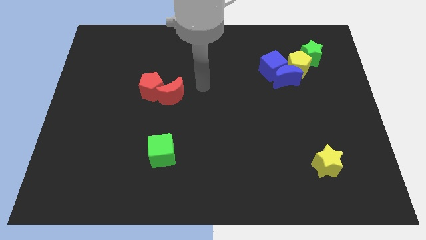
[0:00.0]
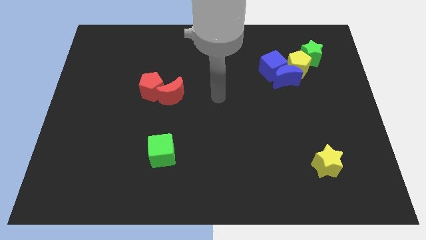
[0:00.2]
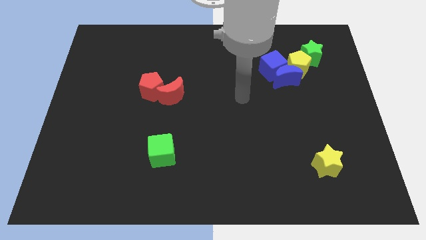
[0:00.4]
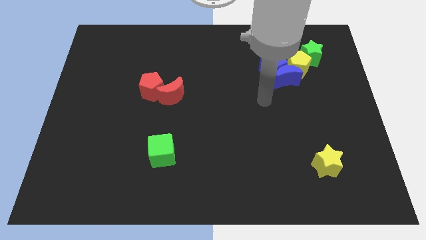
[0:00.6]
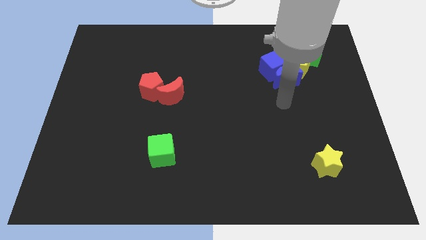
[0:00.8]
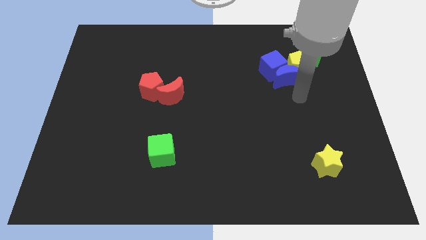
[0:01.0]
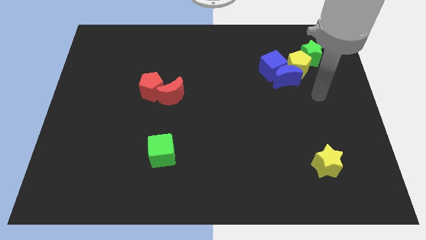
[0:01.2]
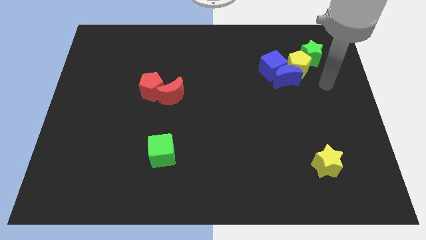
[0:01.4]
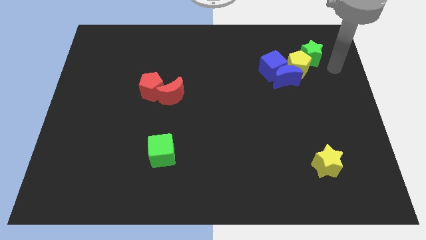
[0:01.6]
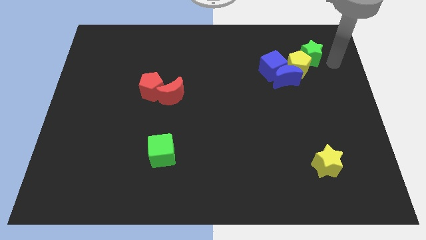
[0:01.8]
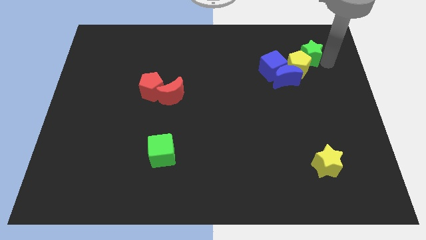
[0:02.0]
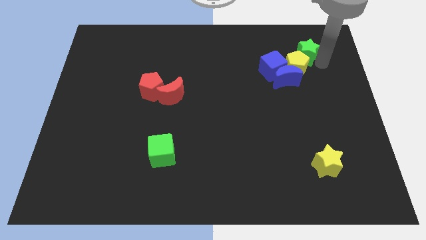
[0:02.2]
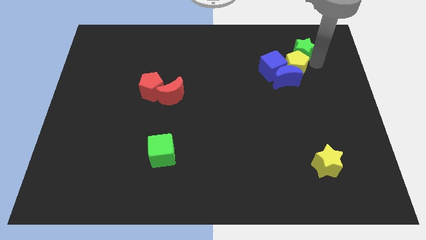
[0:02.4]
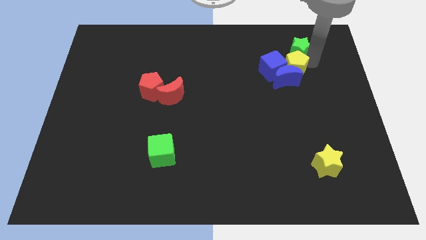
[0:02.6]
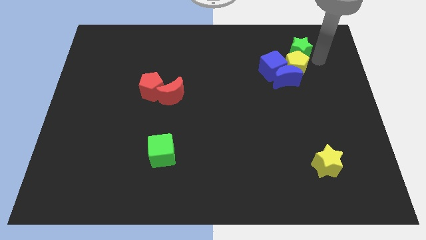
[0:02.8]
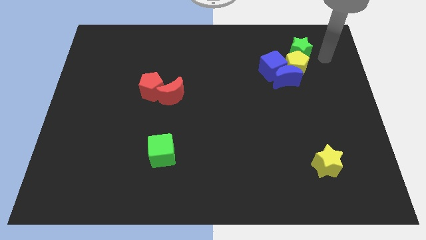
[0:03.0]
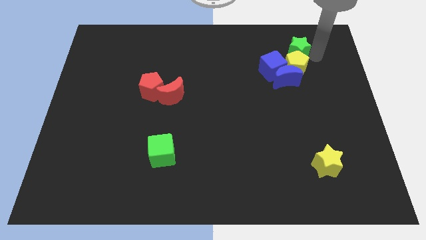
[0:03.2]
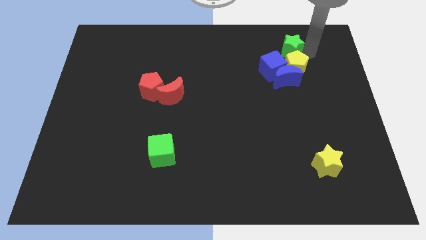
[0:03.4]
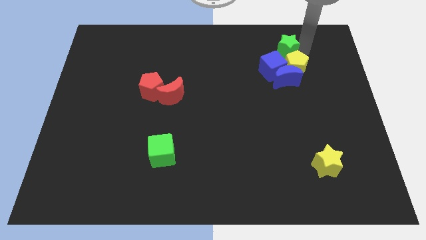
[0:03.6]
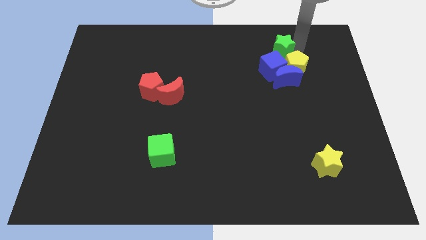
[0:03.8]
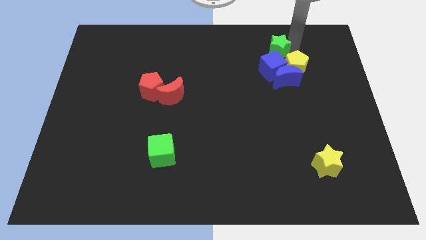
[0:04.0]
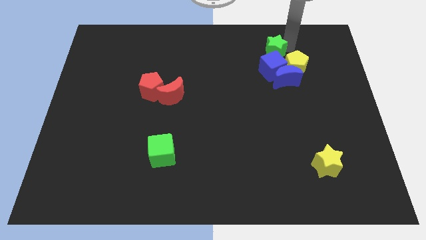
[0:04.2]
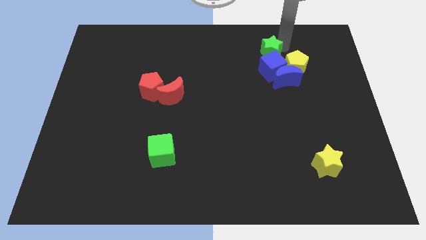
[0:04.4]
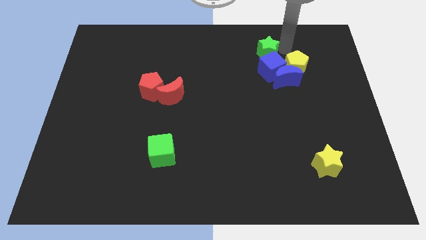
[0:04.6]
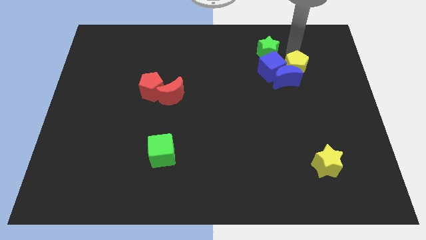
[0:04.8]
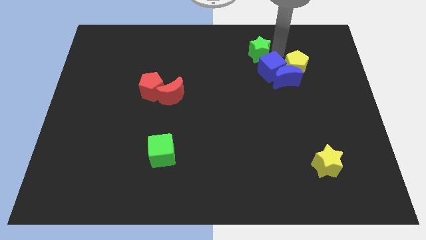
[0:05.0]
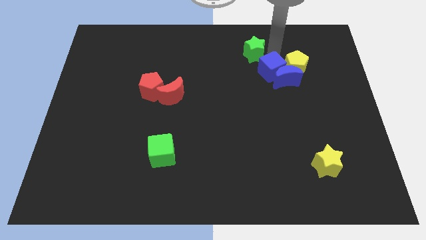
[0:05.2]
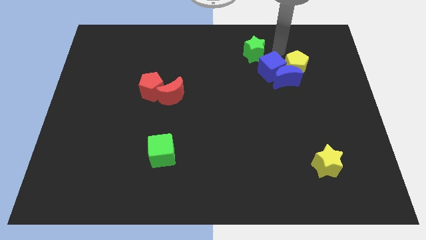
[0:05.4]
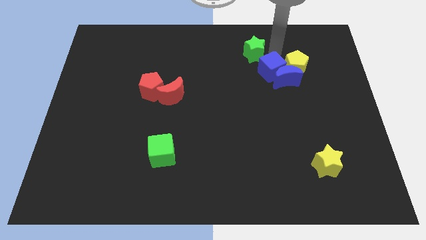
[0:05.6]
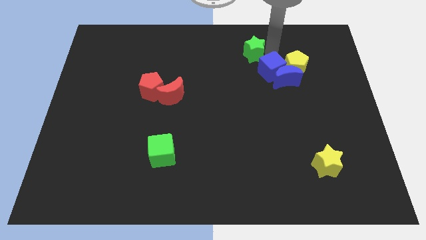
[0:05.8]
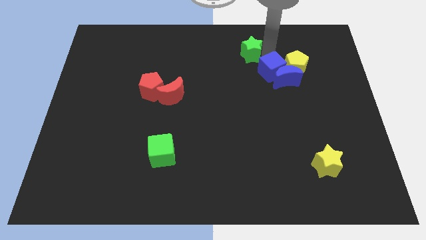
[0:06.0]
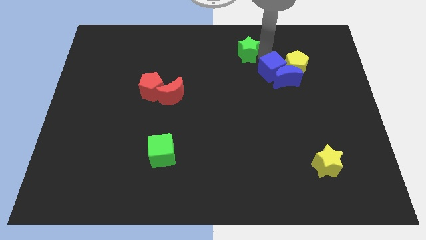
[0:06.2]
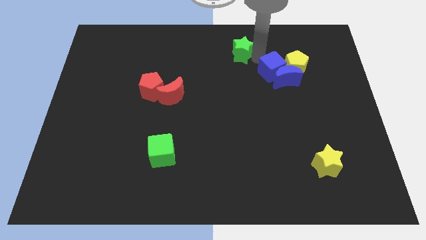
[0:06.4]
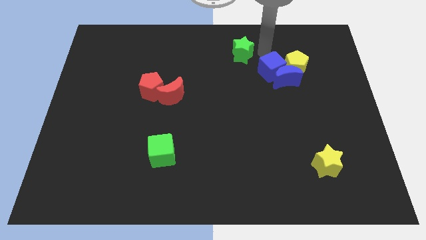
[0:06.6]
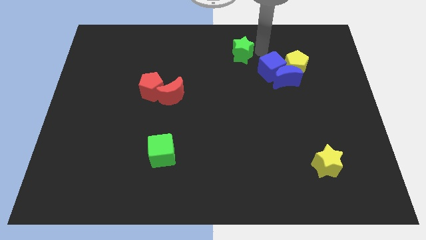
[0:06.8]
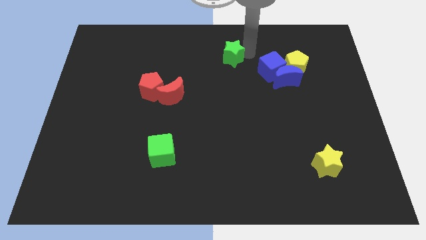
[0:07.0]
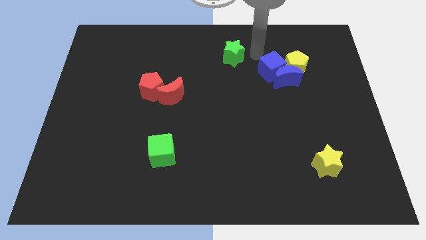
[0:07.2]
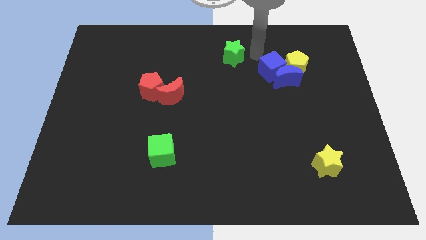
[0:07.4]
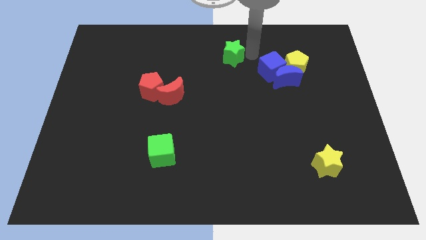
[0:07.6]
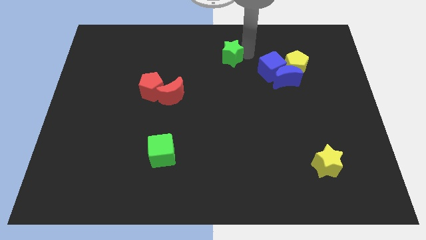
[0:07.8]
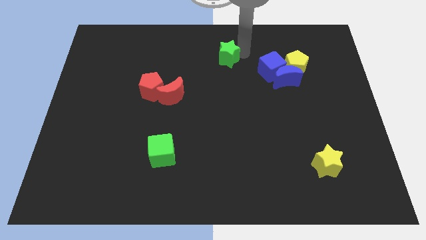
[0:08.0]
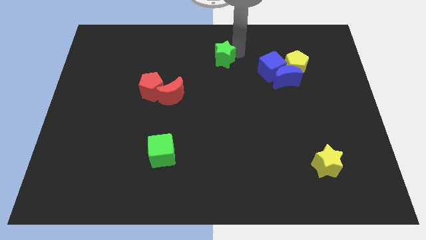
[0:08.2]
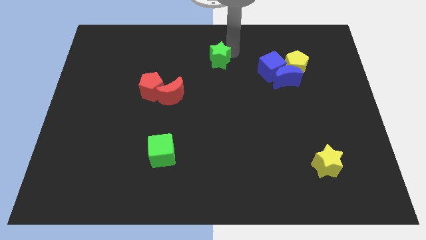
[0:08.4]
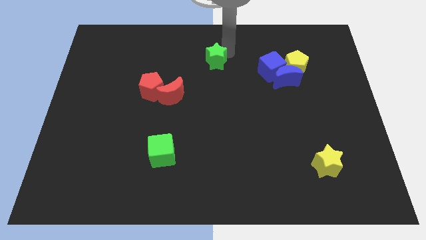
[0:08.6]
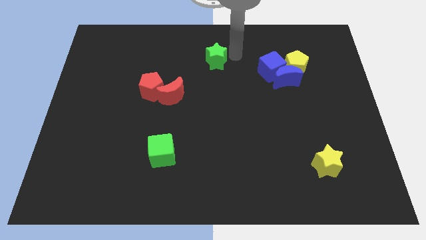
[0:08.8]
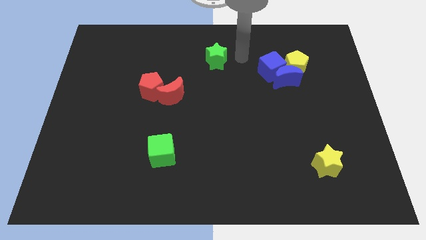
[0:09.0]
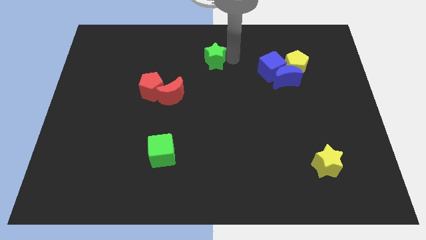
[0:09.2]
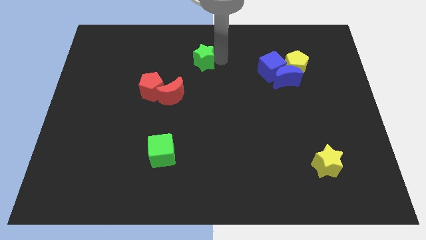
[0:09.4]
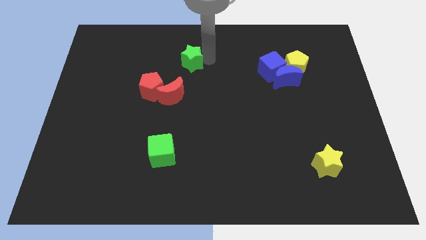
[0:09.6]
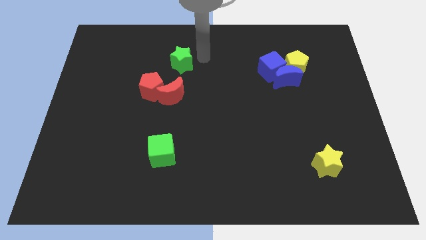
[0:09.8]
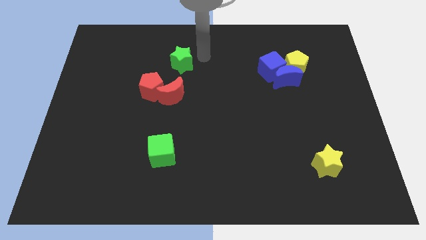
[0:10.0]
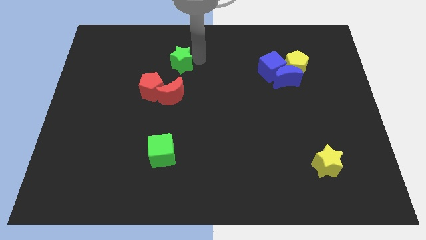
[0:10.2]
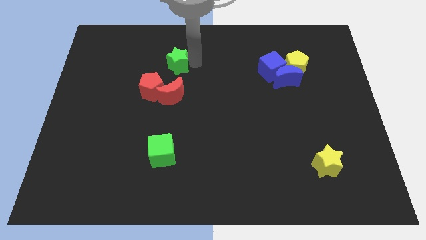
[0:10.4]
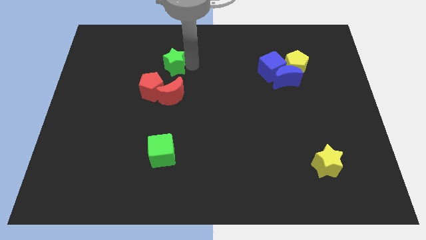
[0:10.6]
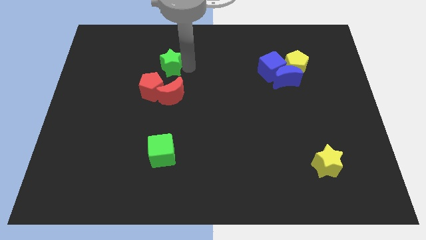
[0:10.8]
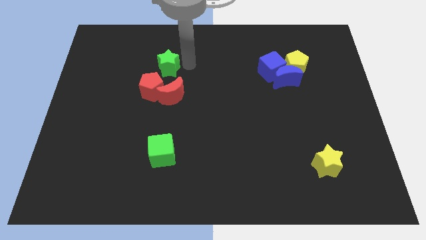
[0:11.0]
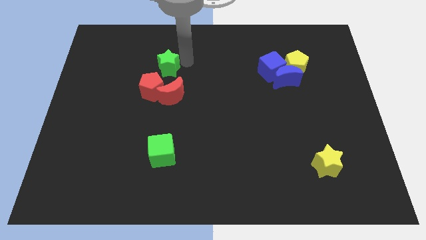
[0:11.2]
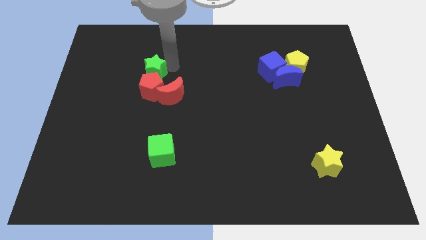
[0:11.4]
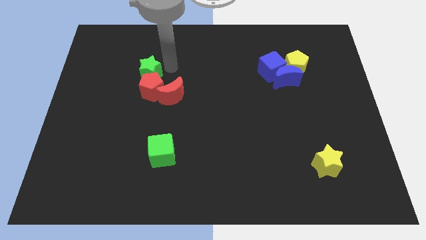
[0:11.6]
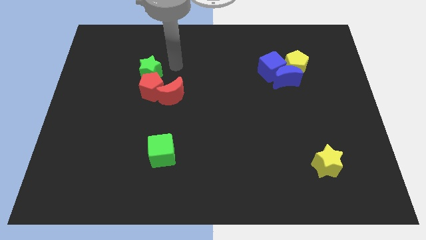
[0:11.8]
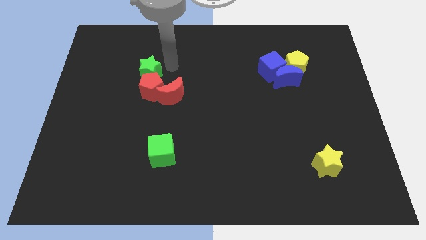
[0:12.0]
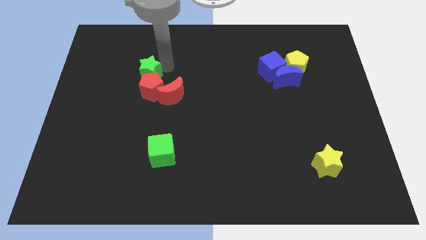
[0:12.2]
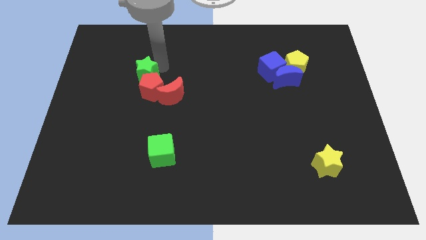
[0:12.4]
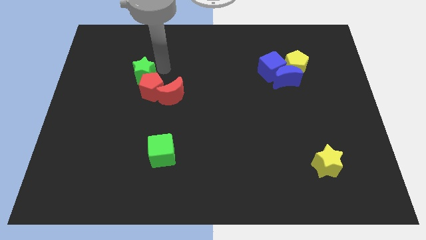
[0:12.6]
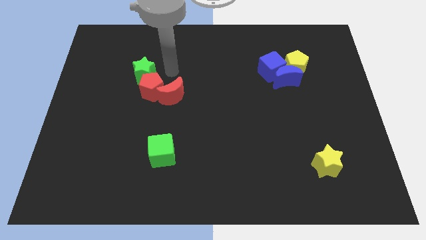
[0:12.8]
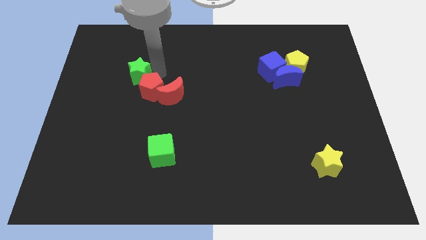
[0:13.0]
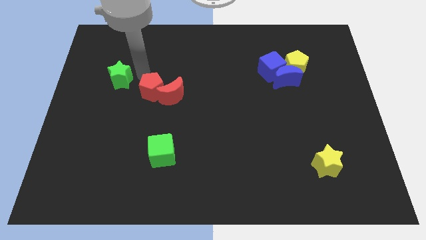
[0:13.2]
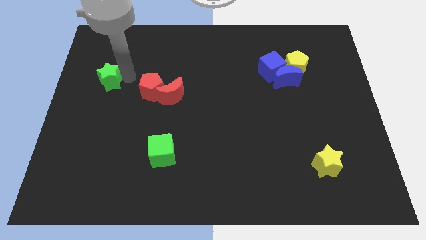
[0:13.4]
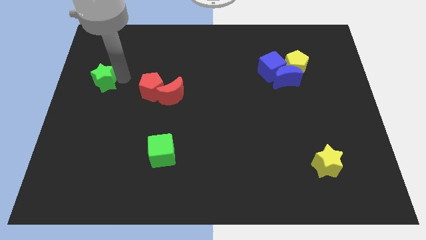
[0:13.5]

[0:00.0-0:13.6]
slide the green star to the center left

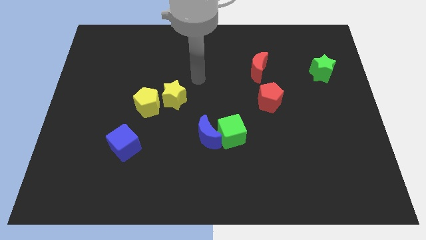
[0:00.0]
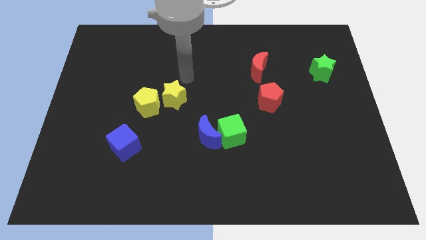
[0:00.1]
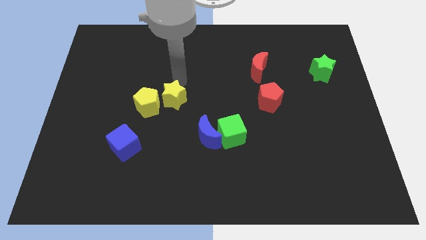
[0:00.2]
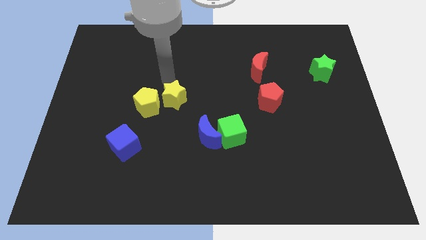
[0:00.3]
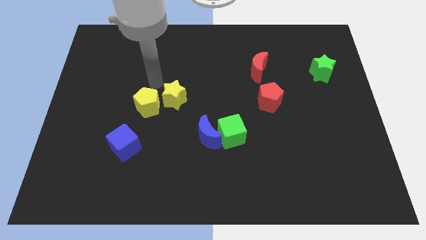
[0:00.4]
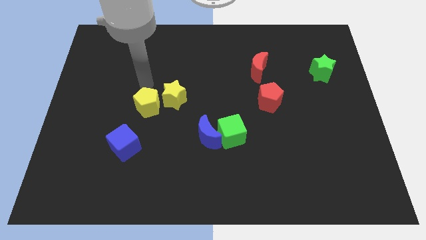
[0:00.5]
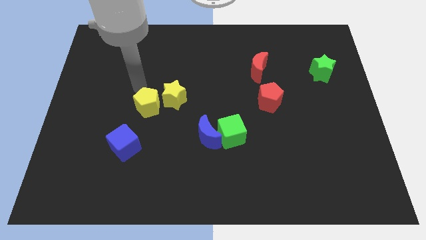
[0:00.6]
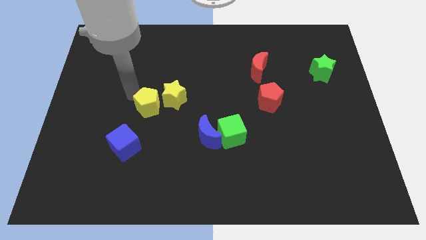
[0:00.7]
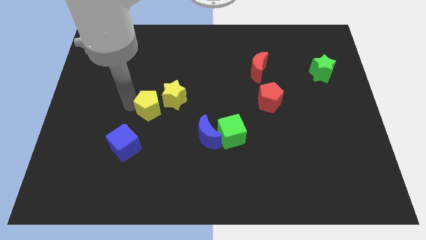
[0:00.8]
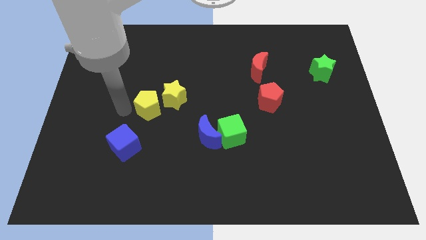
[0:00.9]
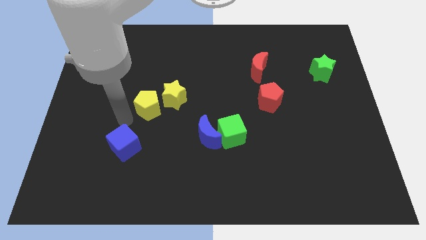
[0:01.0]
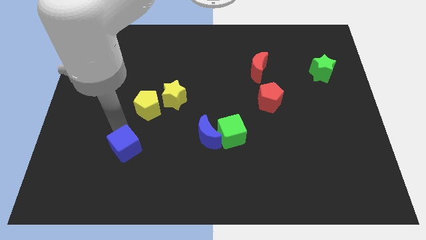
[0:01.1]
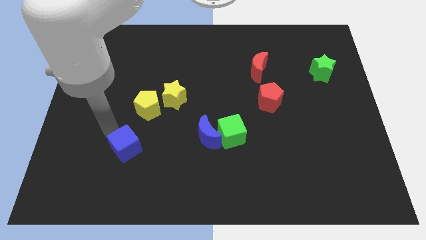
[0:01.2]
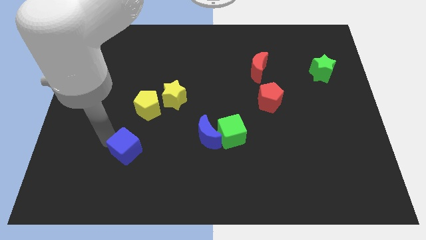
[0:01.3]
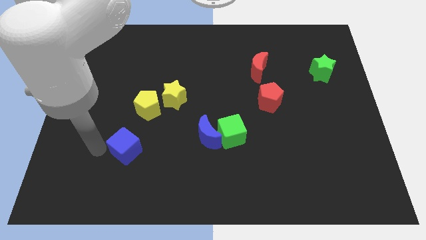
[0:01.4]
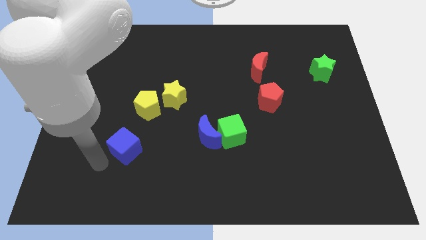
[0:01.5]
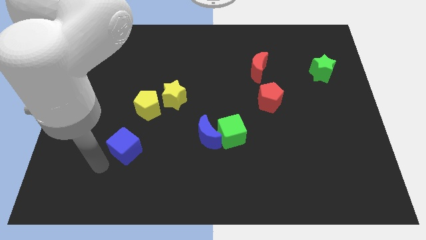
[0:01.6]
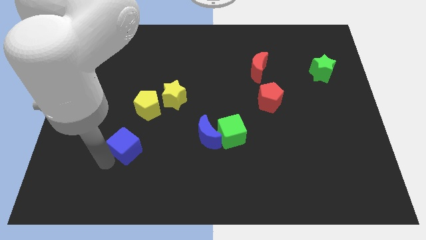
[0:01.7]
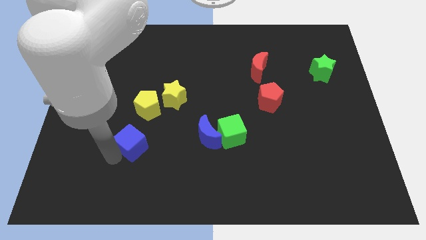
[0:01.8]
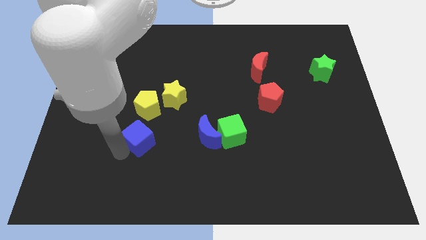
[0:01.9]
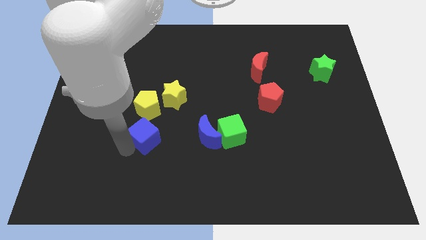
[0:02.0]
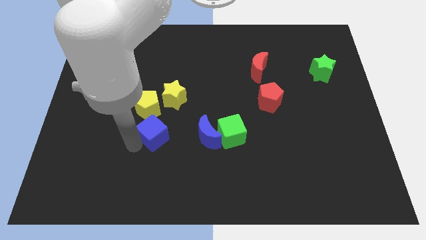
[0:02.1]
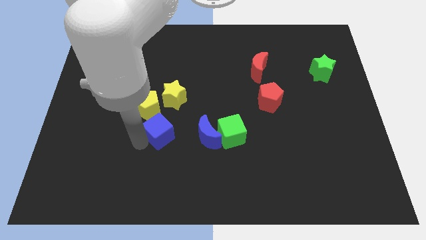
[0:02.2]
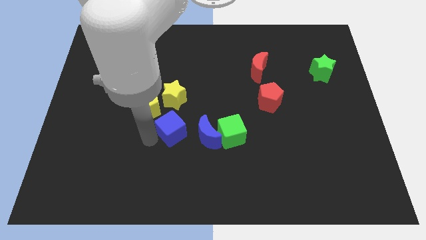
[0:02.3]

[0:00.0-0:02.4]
push the blue cube to the middle of the board
